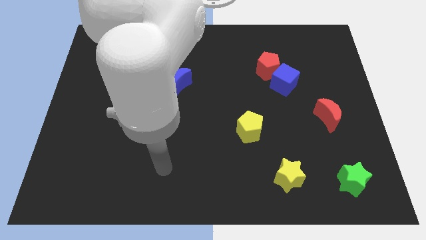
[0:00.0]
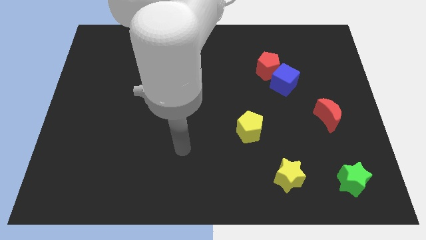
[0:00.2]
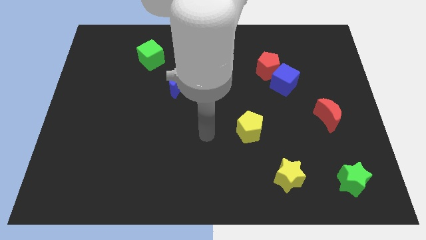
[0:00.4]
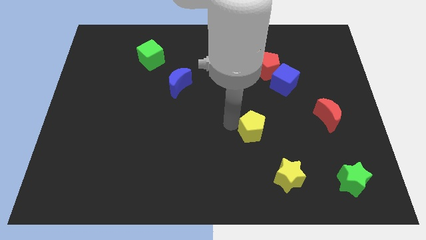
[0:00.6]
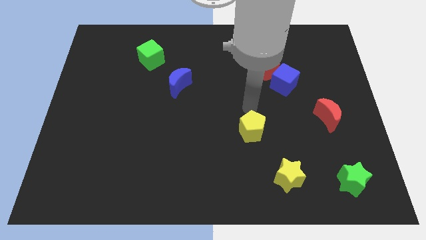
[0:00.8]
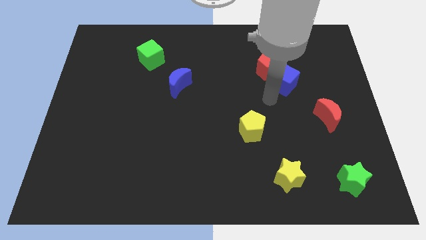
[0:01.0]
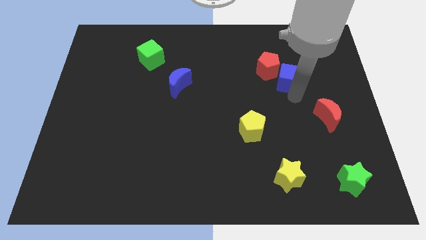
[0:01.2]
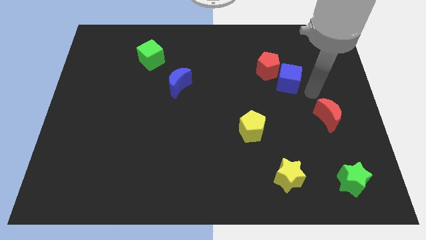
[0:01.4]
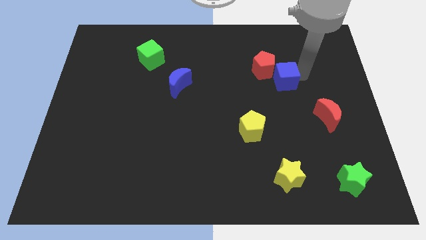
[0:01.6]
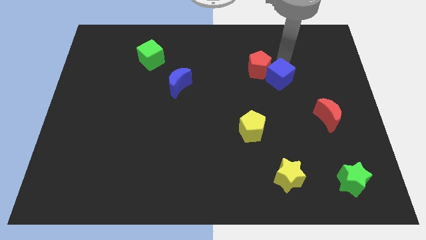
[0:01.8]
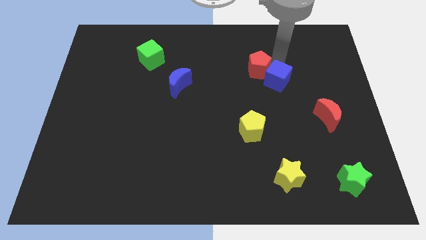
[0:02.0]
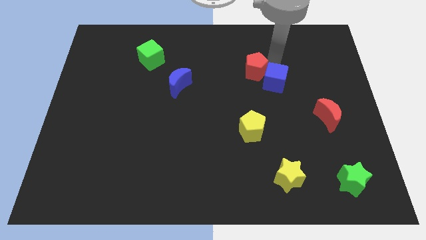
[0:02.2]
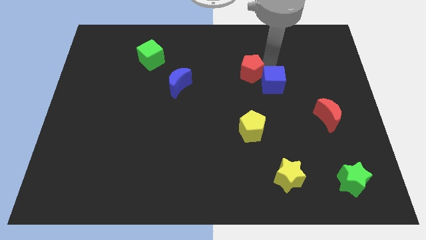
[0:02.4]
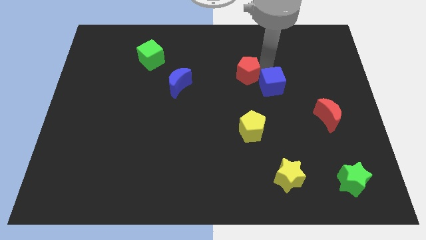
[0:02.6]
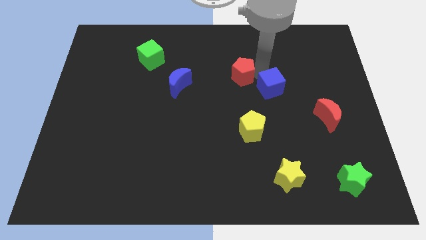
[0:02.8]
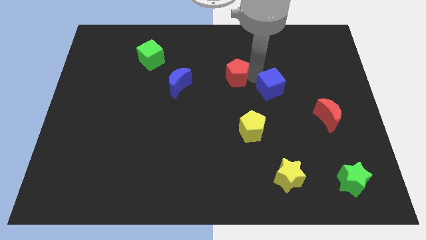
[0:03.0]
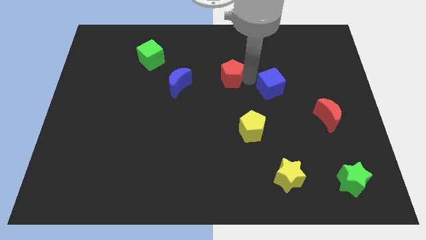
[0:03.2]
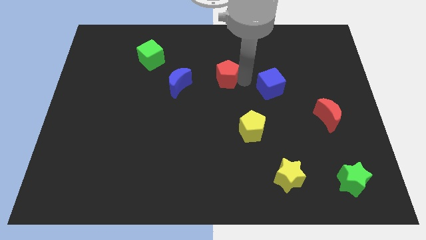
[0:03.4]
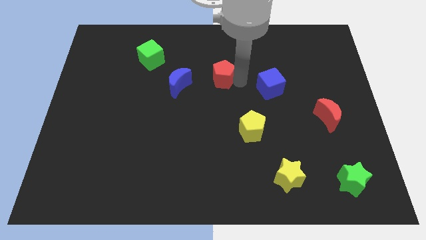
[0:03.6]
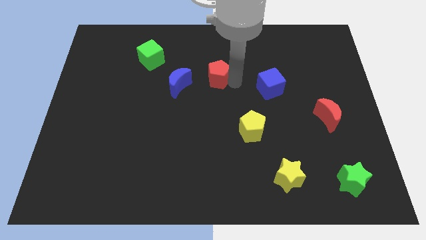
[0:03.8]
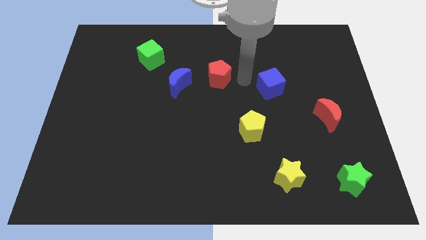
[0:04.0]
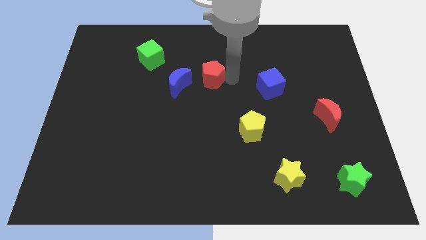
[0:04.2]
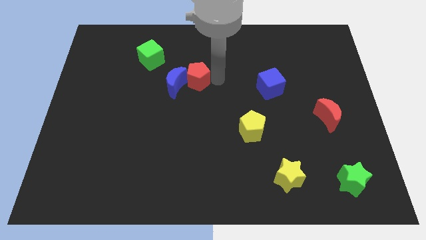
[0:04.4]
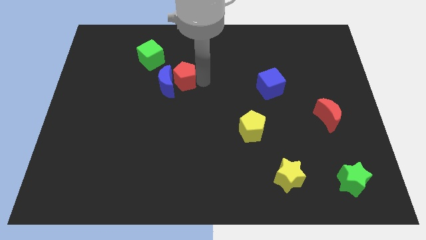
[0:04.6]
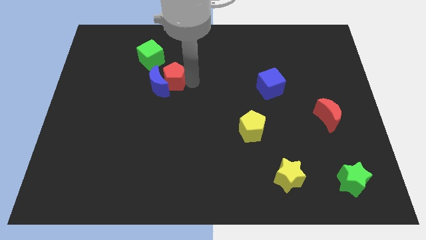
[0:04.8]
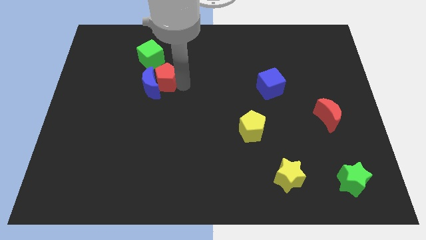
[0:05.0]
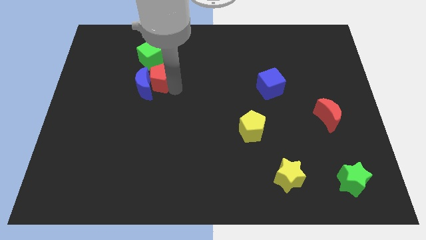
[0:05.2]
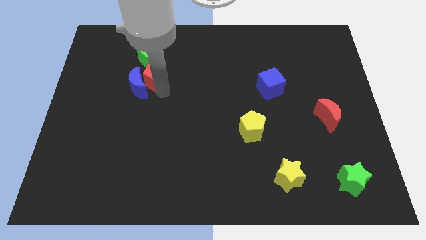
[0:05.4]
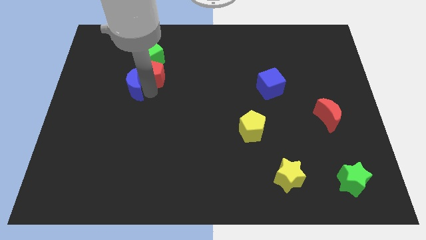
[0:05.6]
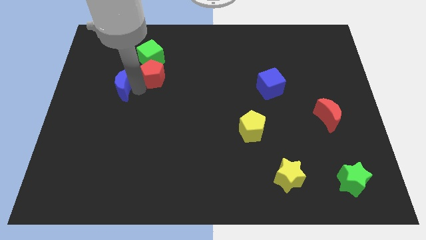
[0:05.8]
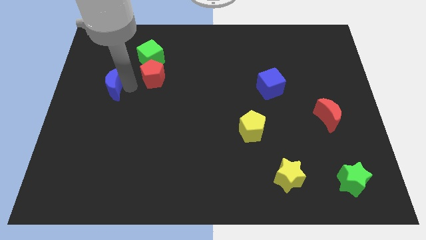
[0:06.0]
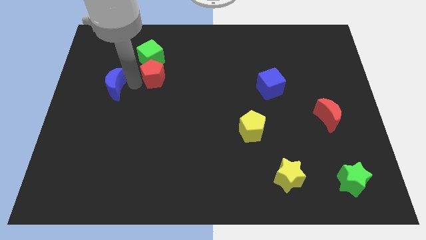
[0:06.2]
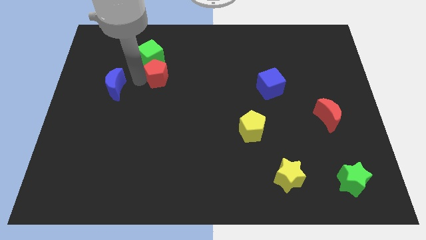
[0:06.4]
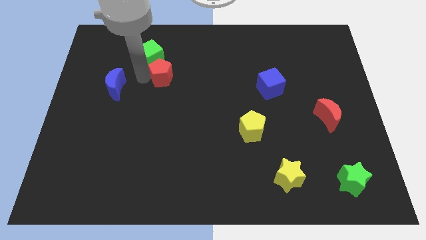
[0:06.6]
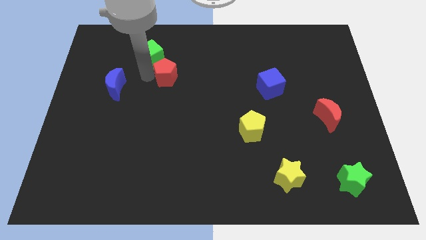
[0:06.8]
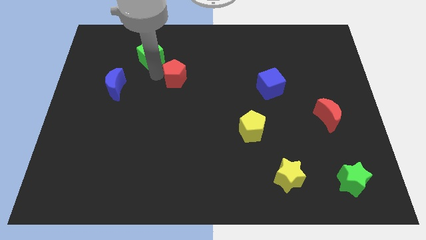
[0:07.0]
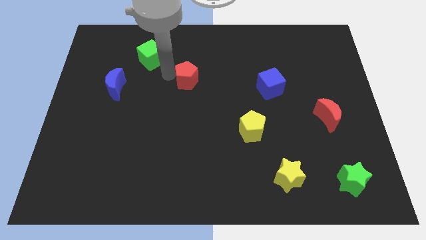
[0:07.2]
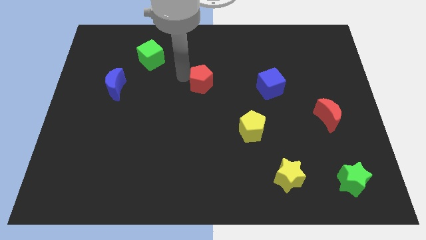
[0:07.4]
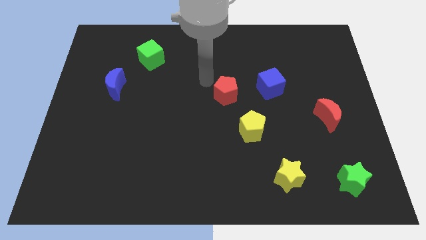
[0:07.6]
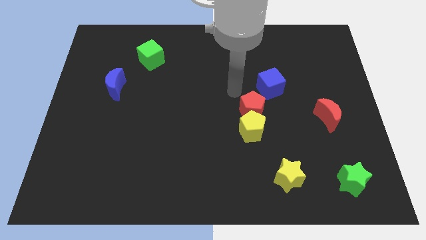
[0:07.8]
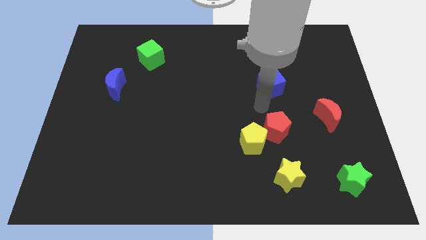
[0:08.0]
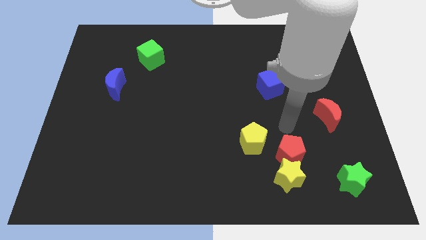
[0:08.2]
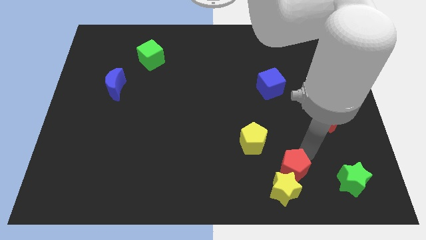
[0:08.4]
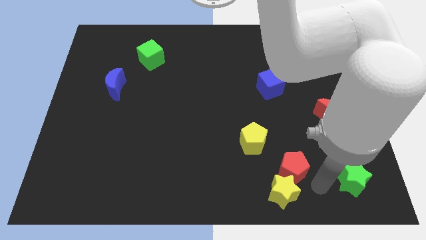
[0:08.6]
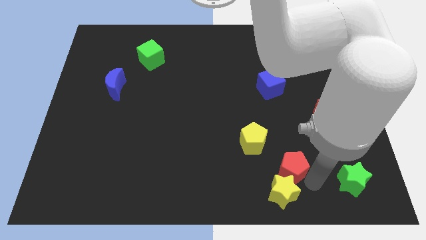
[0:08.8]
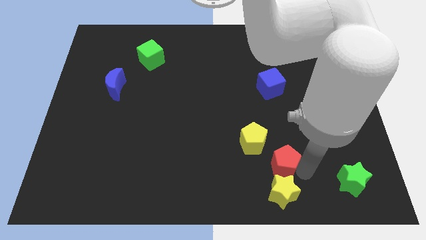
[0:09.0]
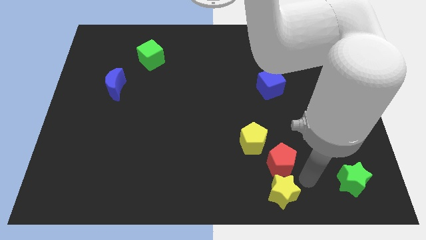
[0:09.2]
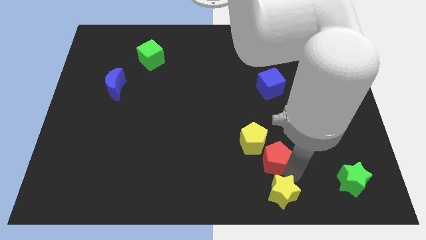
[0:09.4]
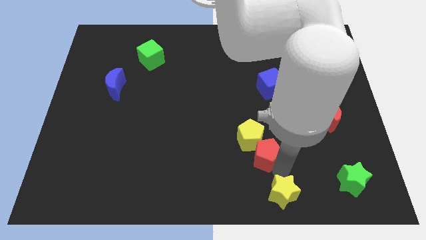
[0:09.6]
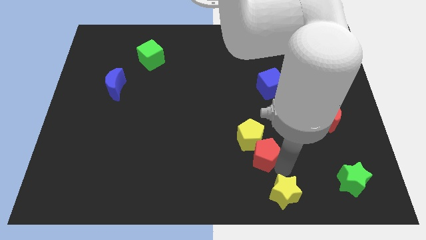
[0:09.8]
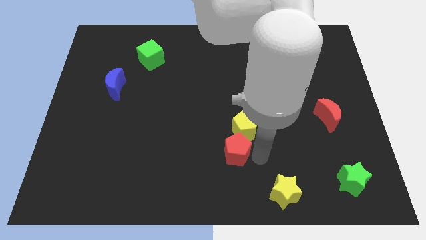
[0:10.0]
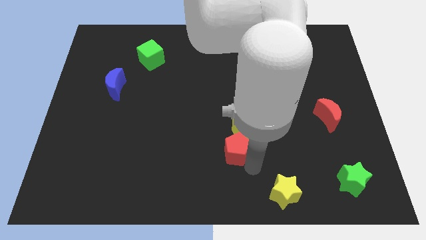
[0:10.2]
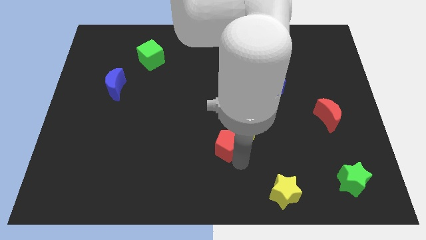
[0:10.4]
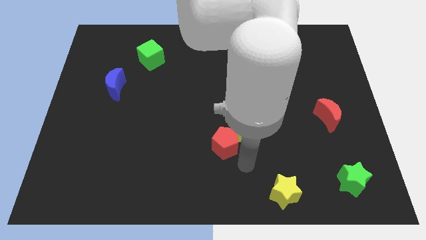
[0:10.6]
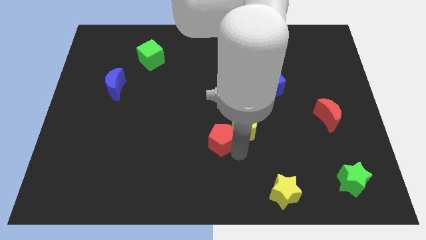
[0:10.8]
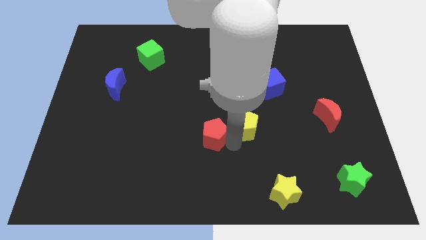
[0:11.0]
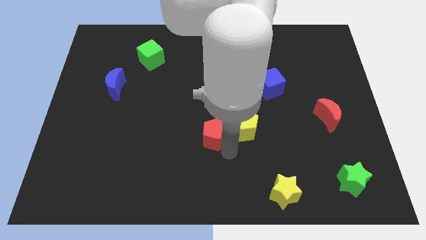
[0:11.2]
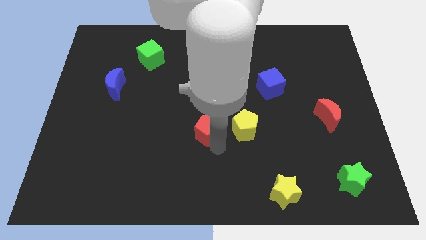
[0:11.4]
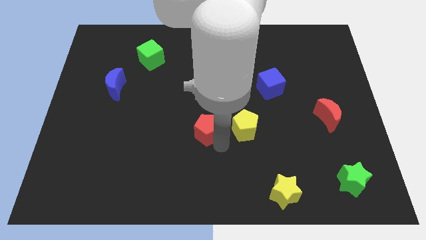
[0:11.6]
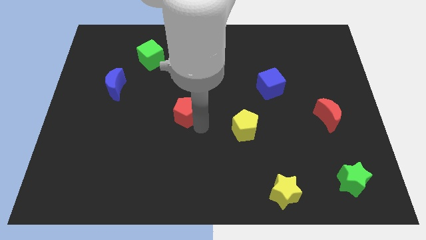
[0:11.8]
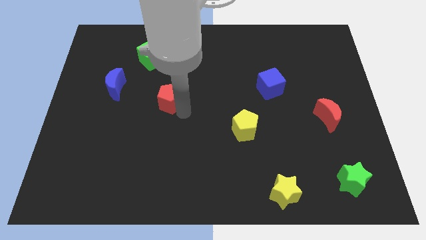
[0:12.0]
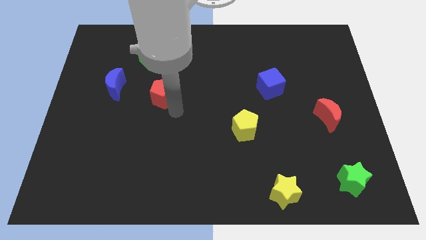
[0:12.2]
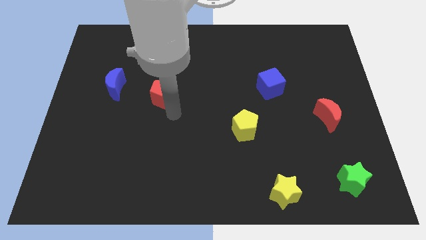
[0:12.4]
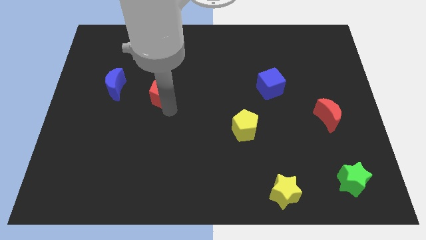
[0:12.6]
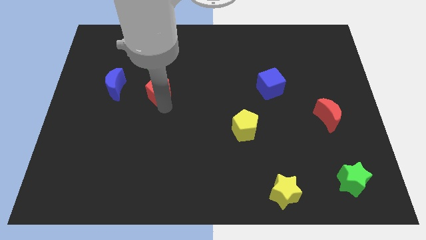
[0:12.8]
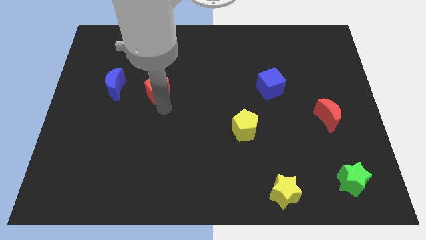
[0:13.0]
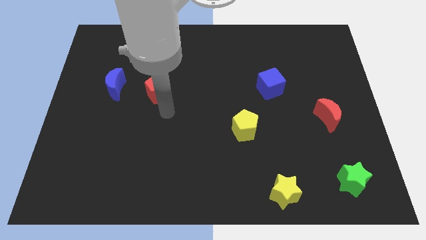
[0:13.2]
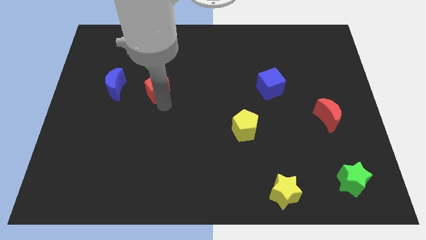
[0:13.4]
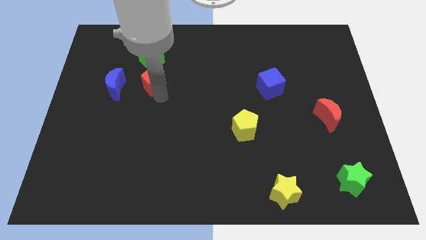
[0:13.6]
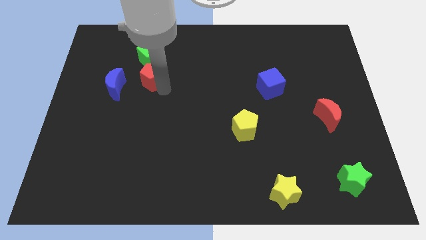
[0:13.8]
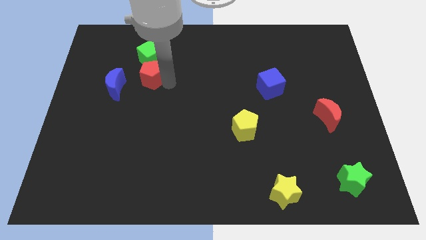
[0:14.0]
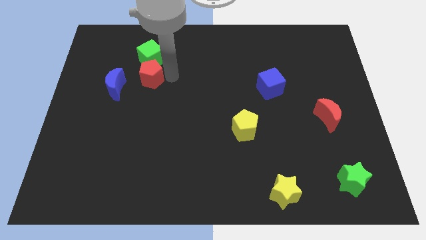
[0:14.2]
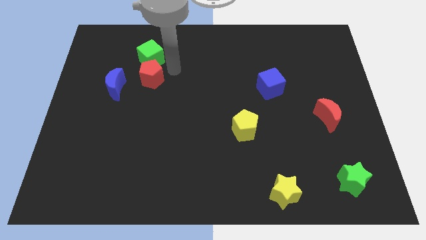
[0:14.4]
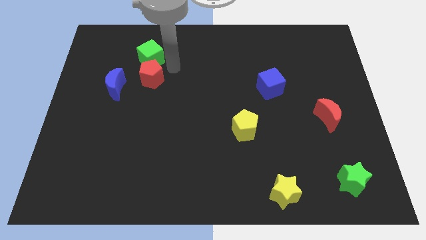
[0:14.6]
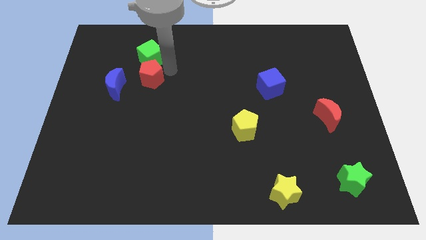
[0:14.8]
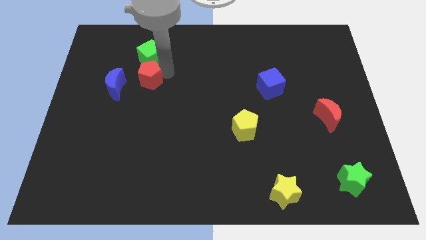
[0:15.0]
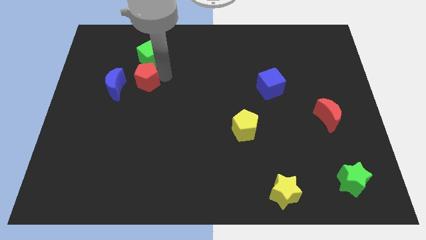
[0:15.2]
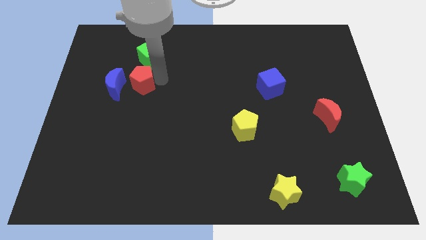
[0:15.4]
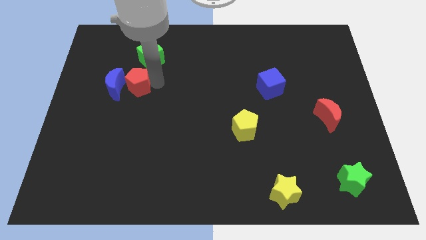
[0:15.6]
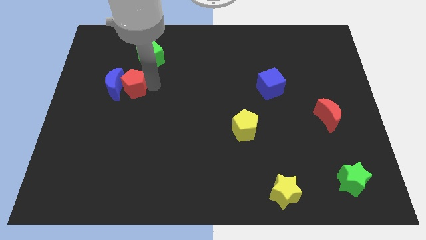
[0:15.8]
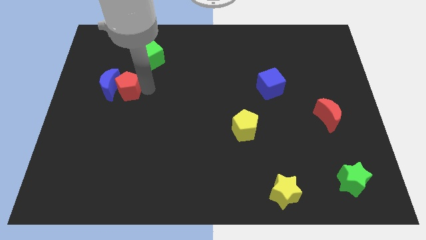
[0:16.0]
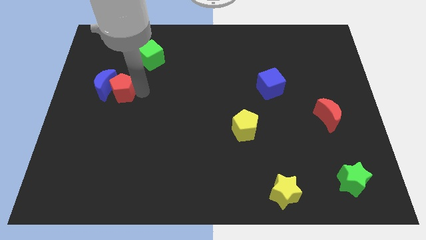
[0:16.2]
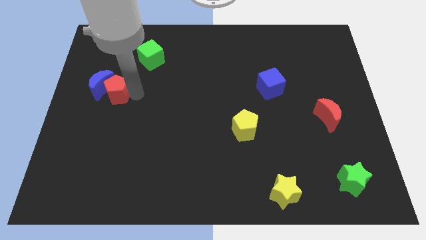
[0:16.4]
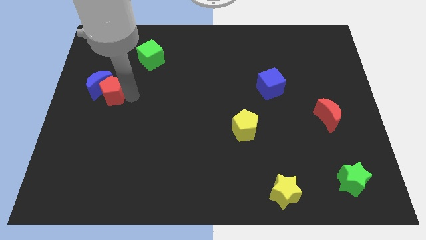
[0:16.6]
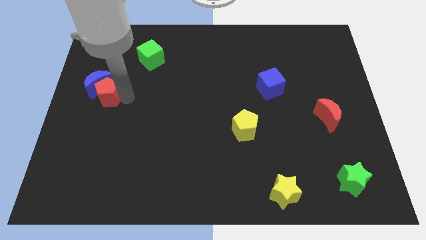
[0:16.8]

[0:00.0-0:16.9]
move the red pentagon to the center left
